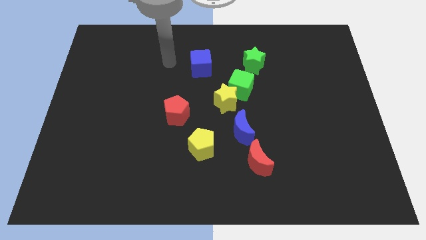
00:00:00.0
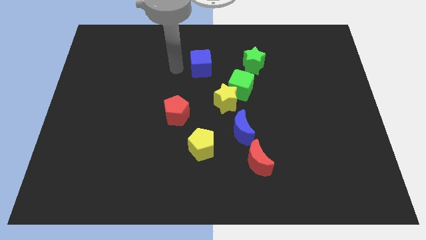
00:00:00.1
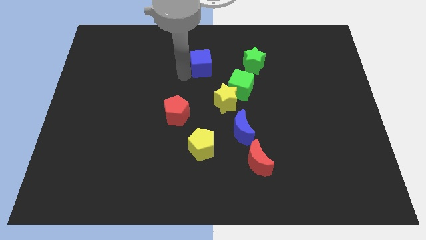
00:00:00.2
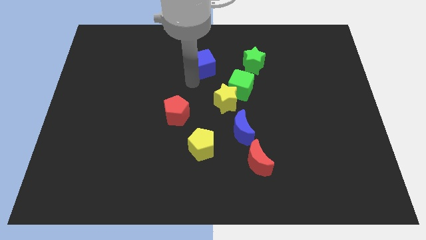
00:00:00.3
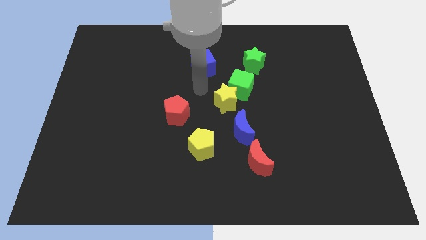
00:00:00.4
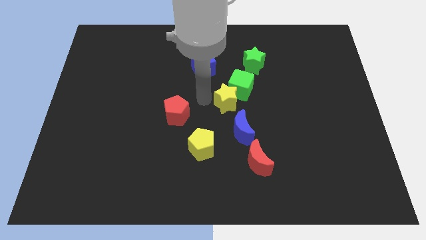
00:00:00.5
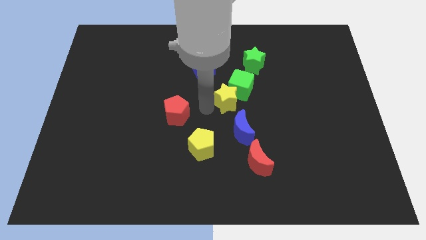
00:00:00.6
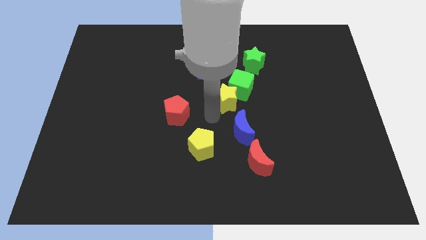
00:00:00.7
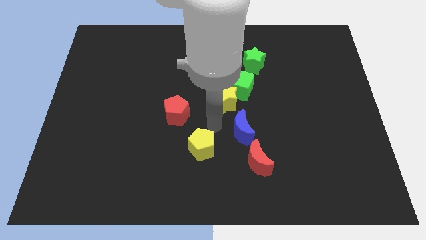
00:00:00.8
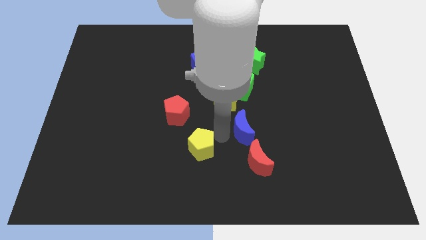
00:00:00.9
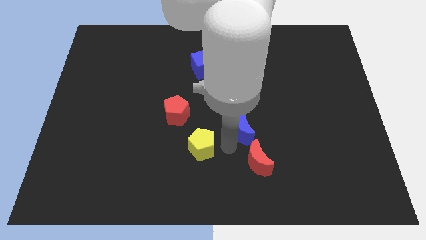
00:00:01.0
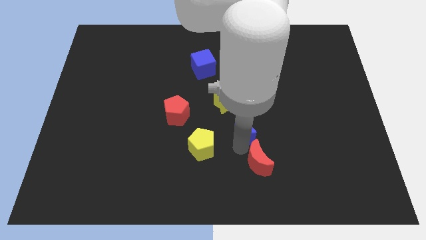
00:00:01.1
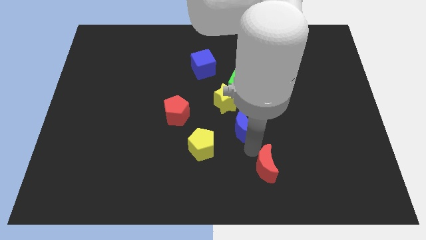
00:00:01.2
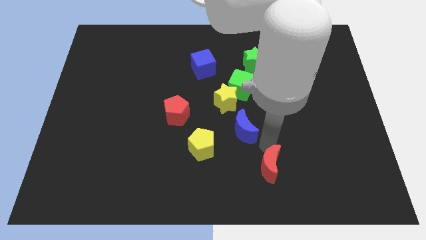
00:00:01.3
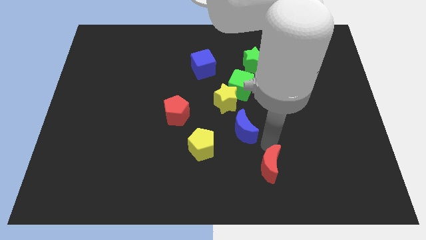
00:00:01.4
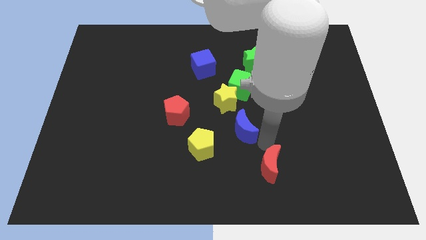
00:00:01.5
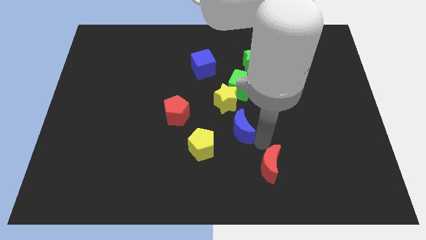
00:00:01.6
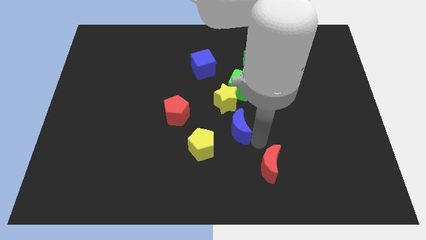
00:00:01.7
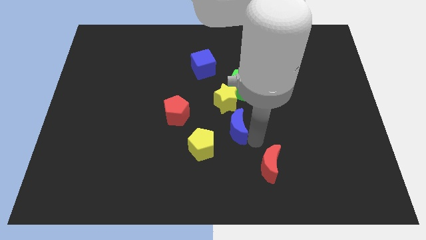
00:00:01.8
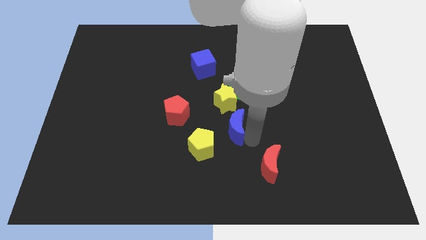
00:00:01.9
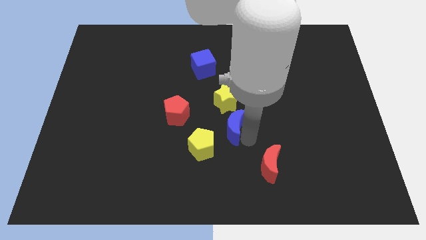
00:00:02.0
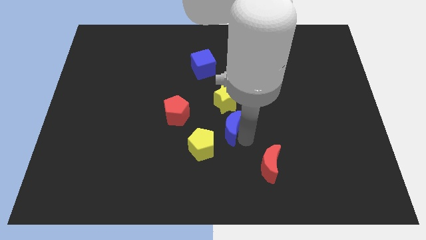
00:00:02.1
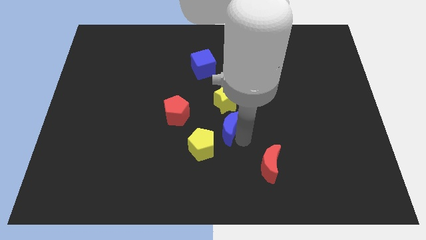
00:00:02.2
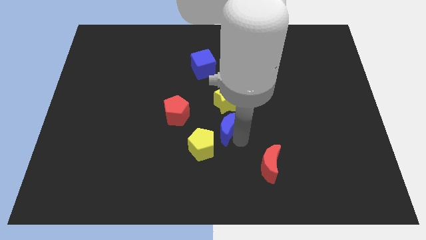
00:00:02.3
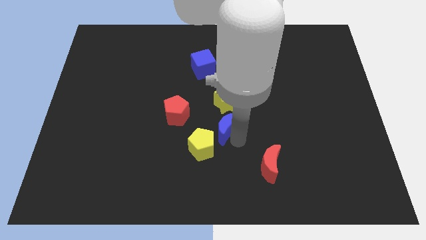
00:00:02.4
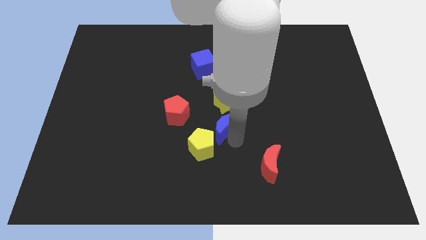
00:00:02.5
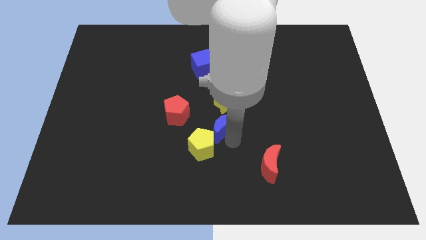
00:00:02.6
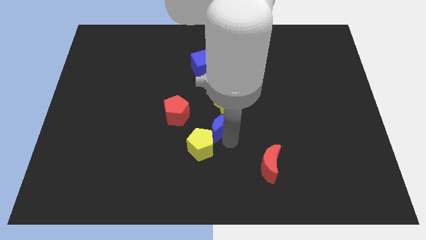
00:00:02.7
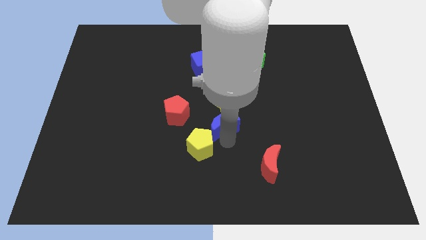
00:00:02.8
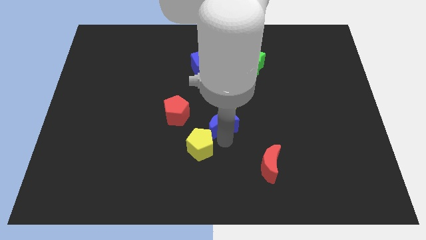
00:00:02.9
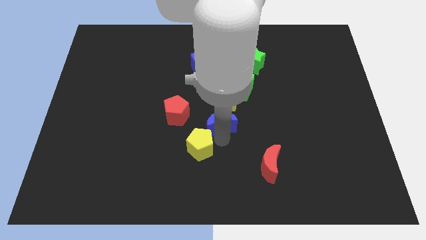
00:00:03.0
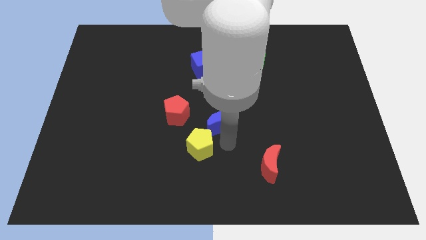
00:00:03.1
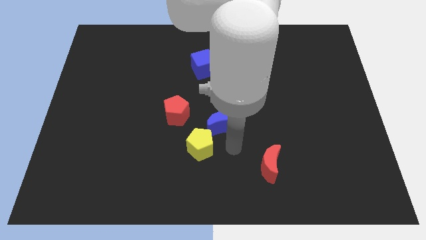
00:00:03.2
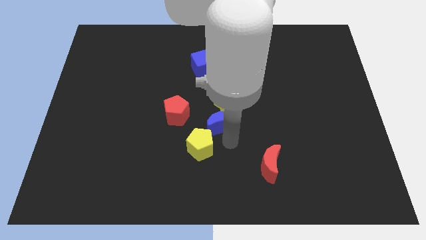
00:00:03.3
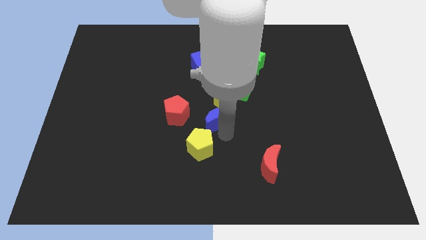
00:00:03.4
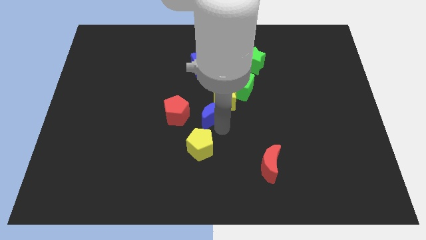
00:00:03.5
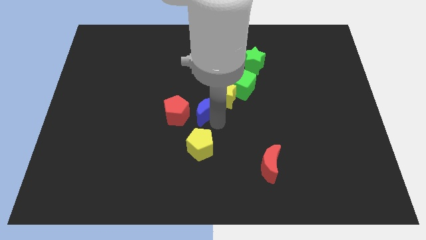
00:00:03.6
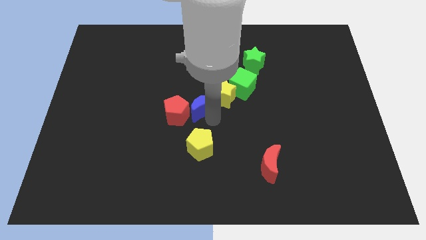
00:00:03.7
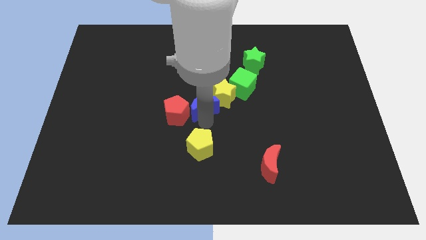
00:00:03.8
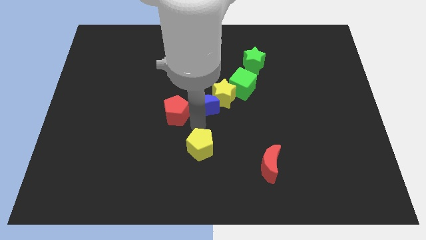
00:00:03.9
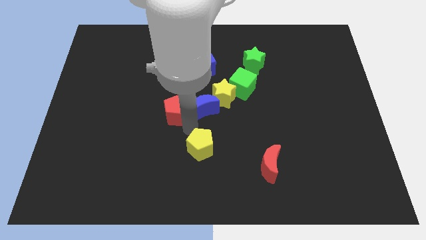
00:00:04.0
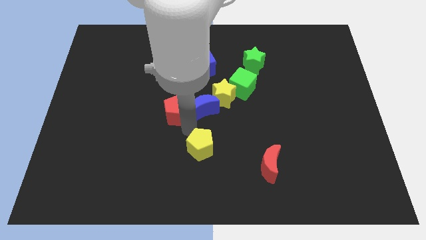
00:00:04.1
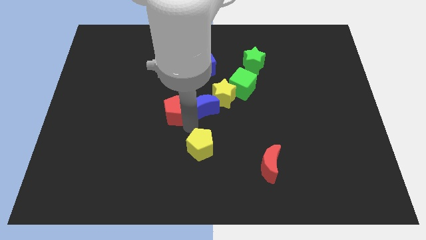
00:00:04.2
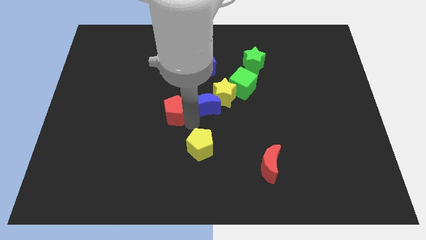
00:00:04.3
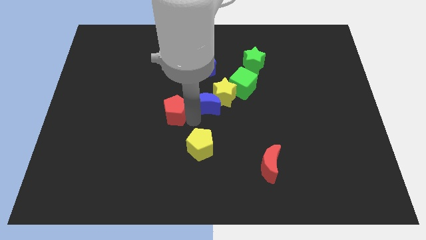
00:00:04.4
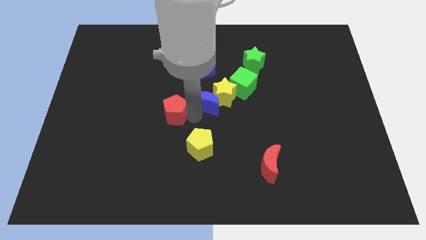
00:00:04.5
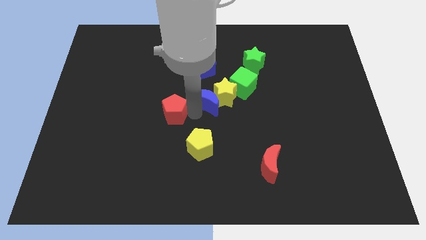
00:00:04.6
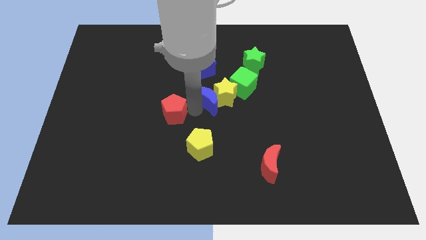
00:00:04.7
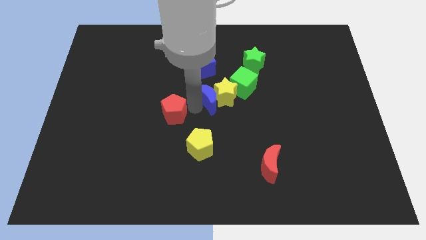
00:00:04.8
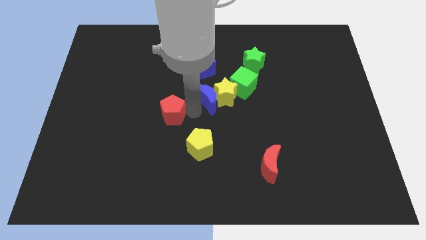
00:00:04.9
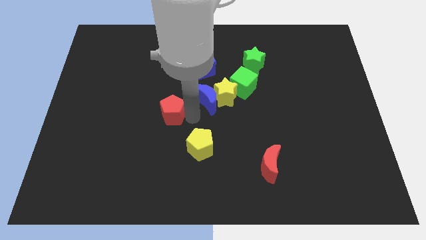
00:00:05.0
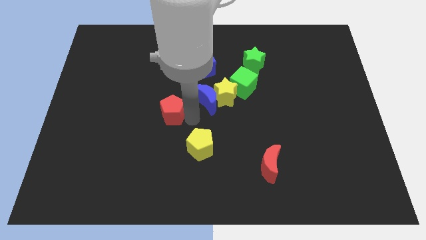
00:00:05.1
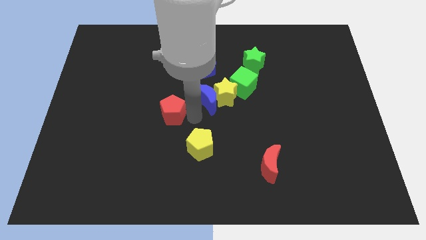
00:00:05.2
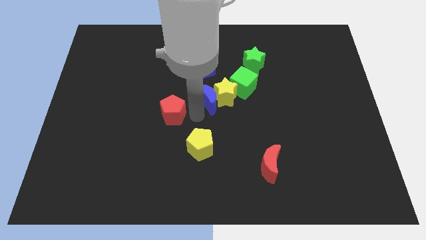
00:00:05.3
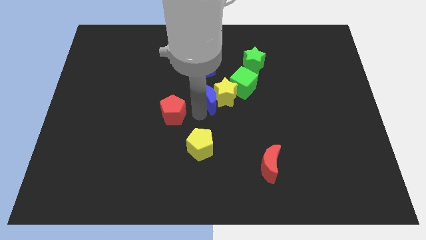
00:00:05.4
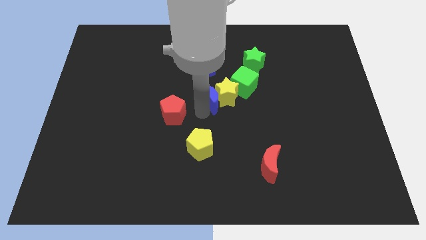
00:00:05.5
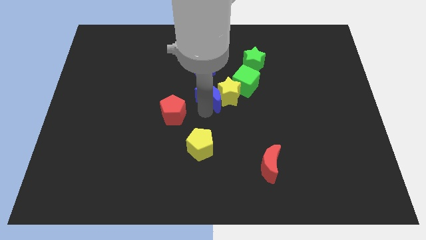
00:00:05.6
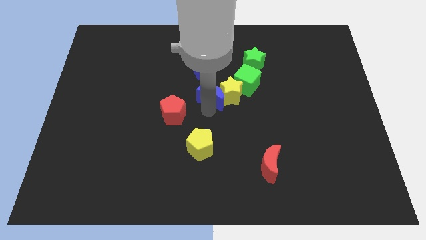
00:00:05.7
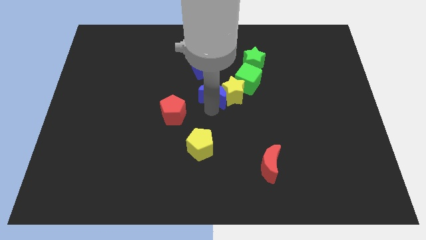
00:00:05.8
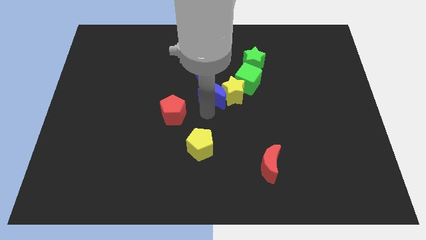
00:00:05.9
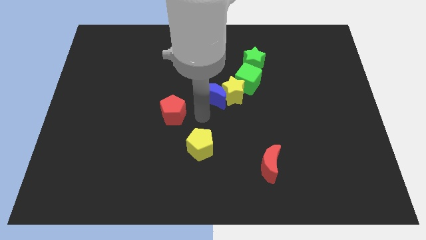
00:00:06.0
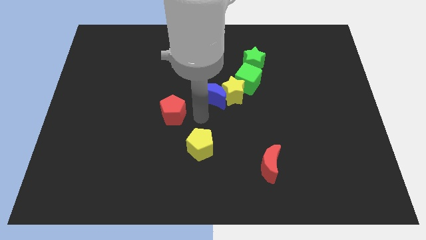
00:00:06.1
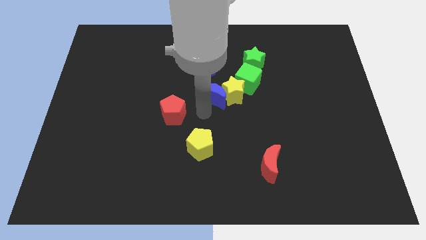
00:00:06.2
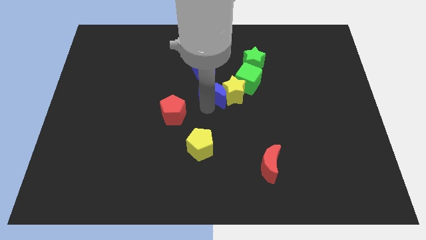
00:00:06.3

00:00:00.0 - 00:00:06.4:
move the blue moon diagonally down and to the right of the blue cube

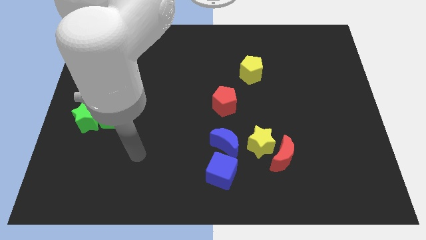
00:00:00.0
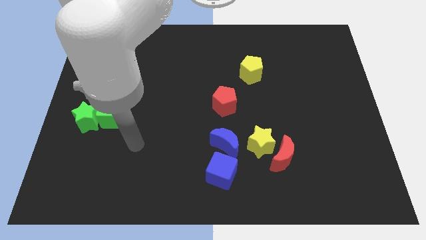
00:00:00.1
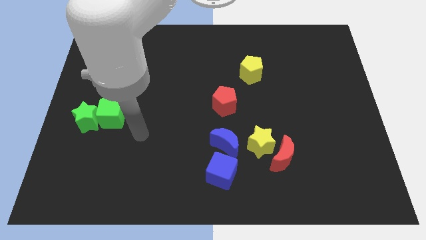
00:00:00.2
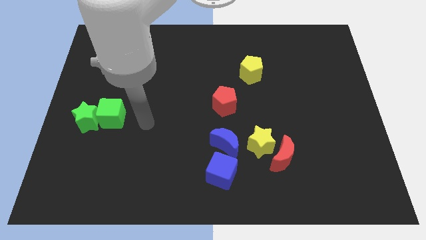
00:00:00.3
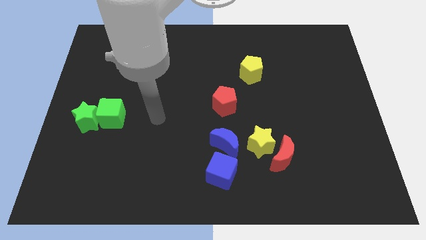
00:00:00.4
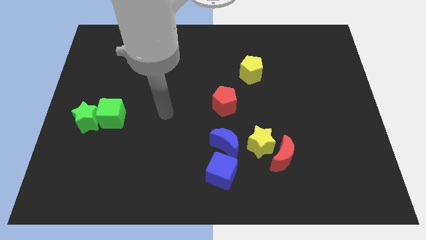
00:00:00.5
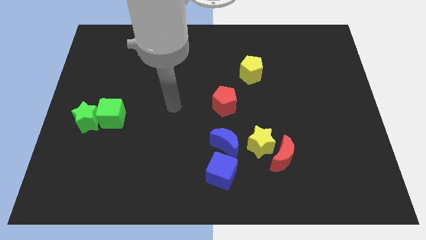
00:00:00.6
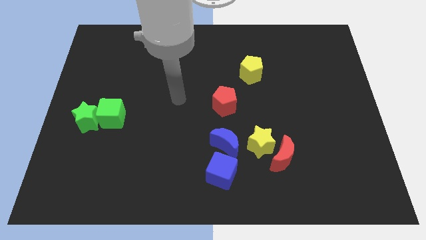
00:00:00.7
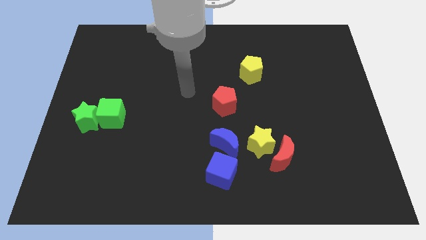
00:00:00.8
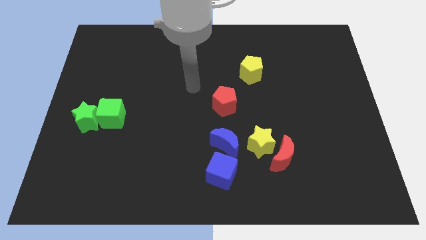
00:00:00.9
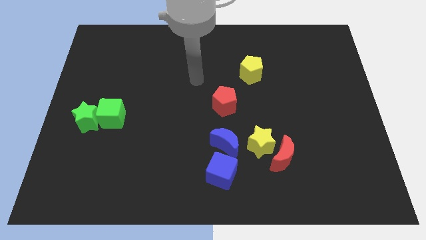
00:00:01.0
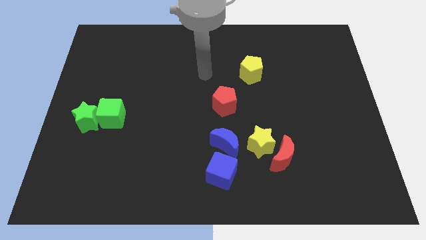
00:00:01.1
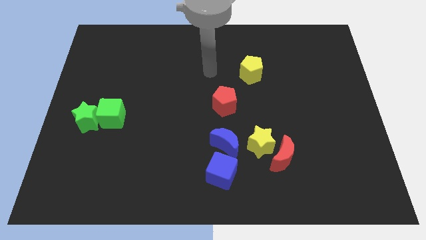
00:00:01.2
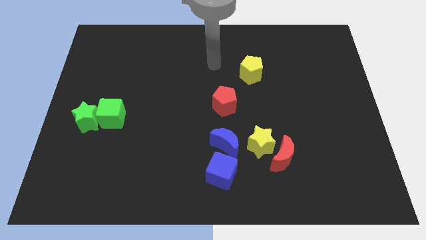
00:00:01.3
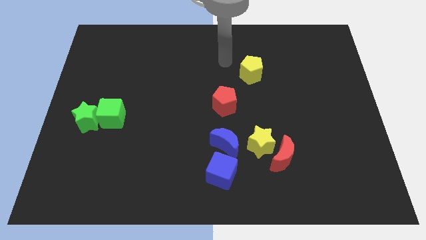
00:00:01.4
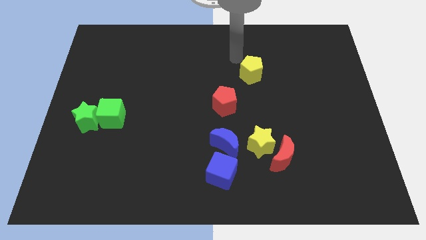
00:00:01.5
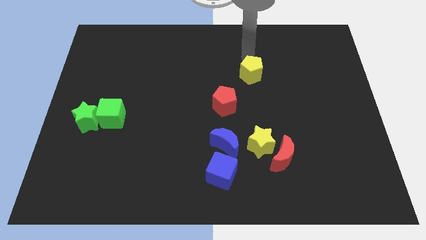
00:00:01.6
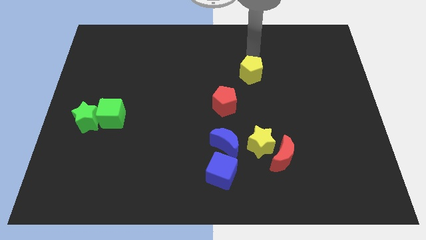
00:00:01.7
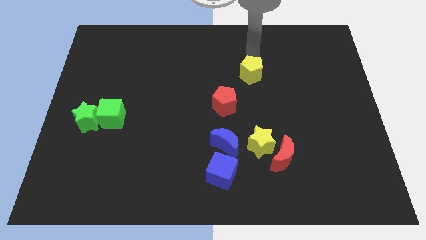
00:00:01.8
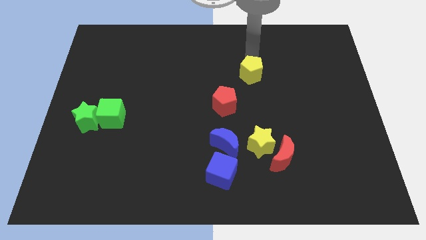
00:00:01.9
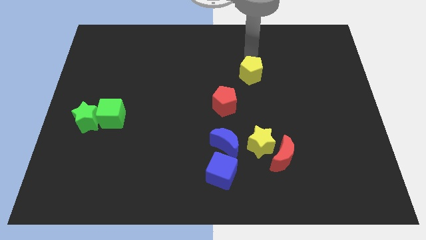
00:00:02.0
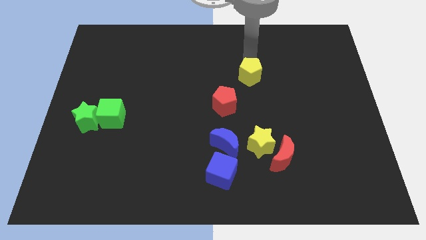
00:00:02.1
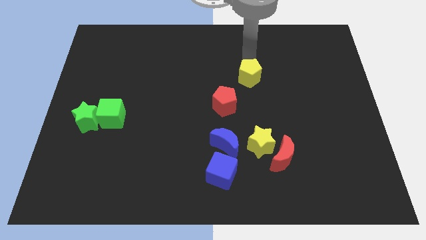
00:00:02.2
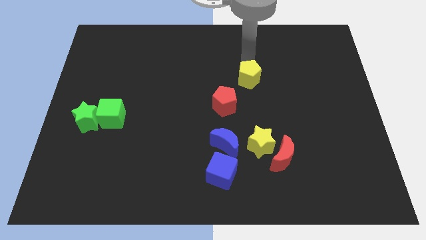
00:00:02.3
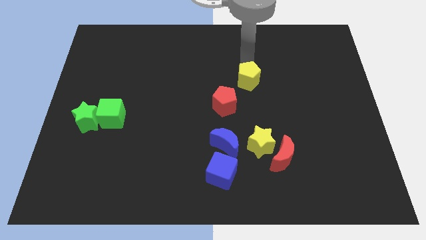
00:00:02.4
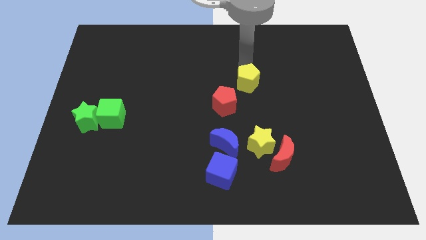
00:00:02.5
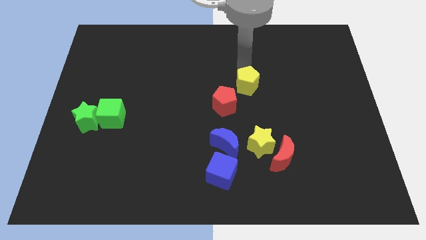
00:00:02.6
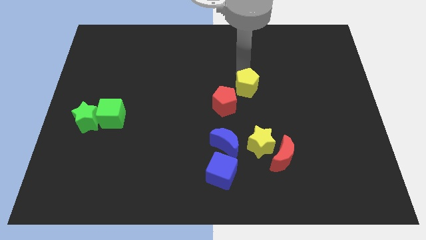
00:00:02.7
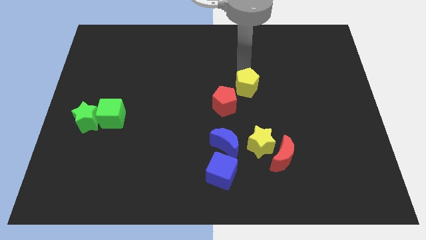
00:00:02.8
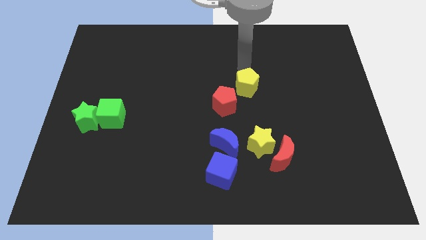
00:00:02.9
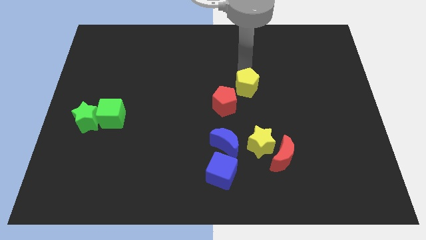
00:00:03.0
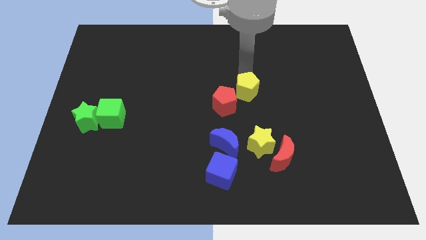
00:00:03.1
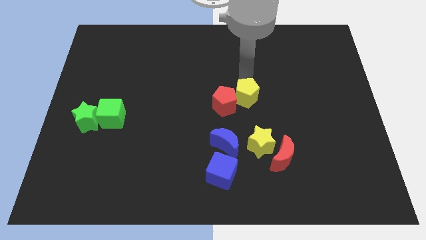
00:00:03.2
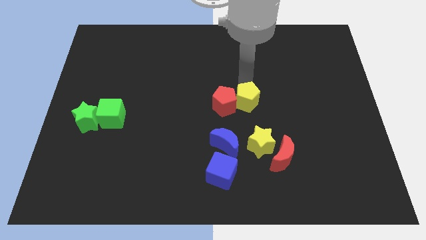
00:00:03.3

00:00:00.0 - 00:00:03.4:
move the yellow pentagon to the bottom right side of the red pentagon
